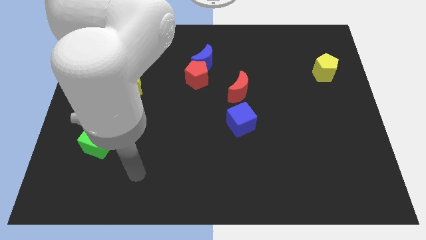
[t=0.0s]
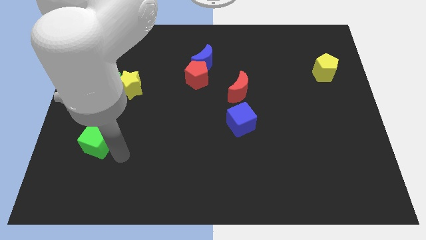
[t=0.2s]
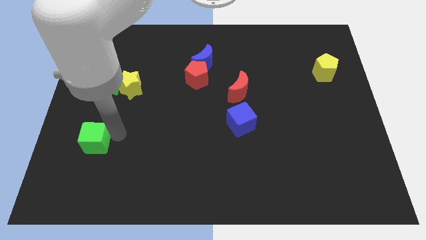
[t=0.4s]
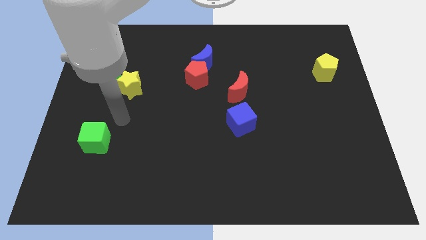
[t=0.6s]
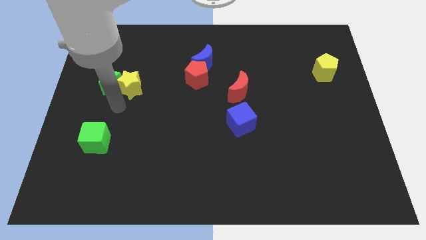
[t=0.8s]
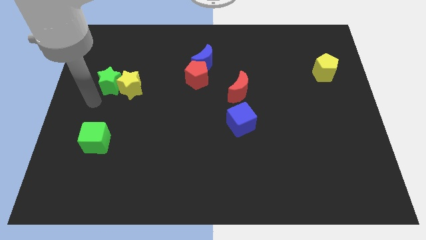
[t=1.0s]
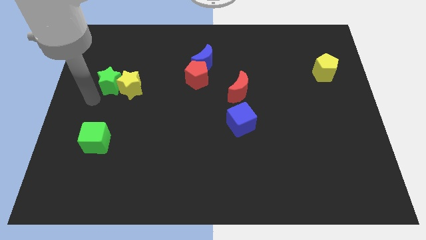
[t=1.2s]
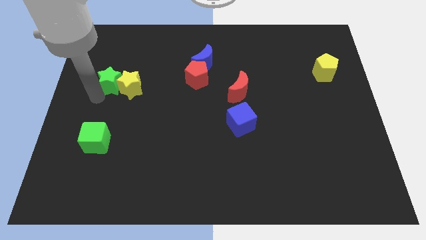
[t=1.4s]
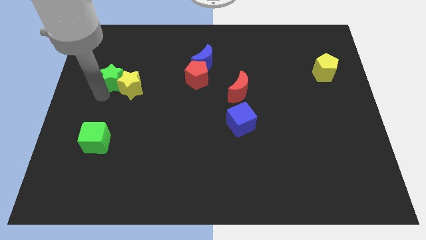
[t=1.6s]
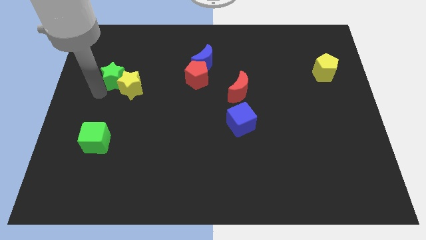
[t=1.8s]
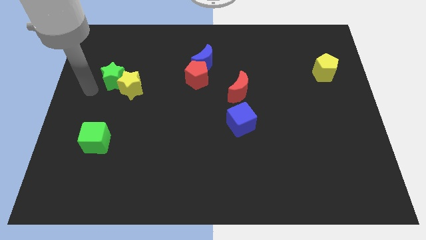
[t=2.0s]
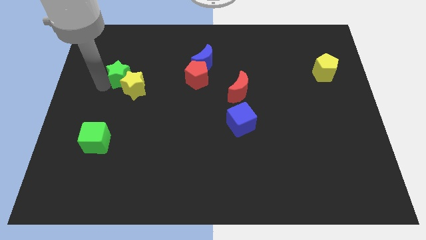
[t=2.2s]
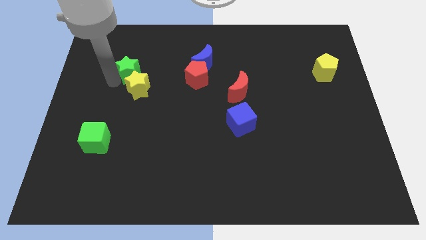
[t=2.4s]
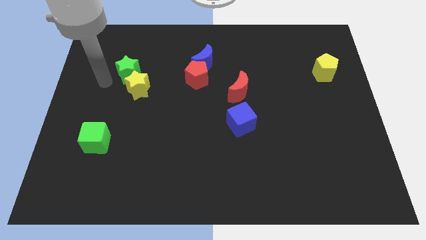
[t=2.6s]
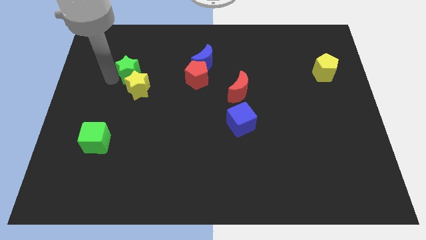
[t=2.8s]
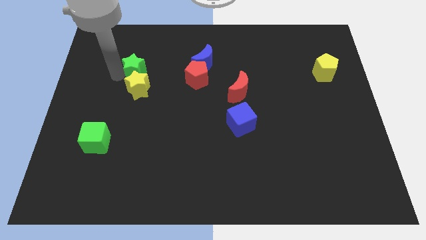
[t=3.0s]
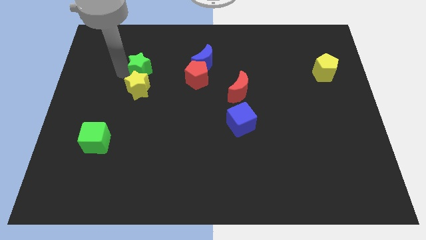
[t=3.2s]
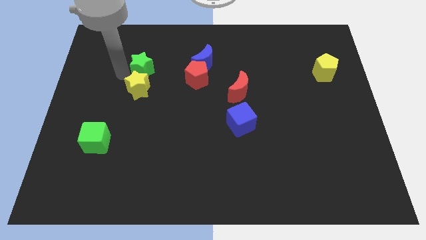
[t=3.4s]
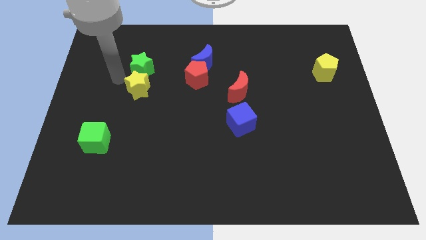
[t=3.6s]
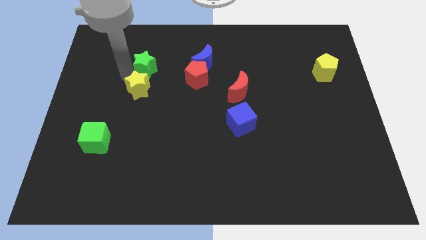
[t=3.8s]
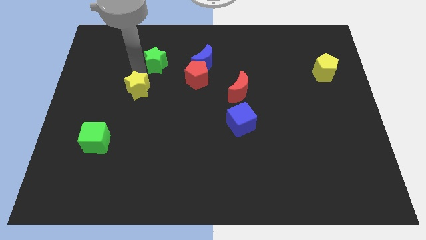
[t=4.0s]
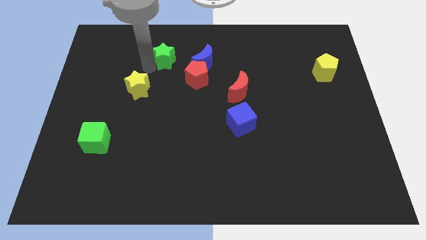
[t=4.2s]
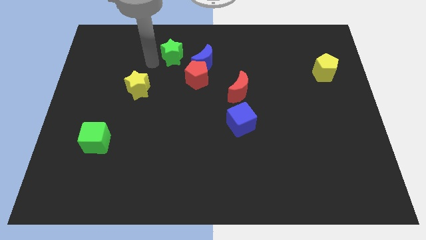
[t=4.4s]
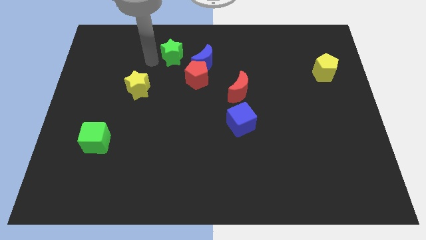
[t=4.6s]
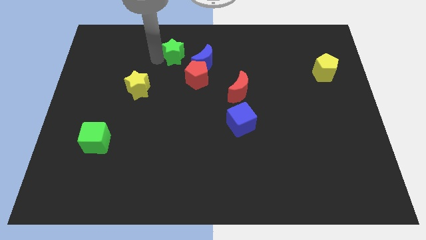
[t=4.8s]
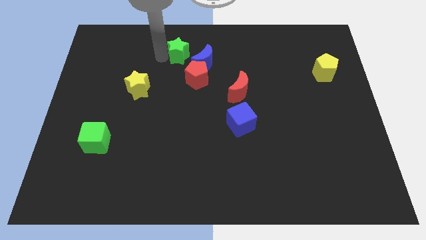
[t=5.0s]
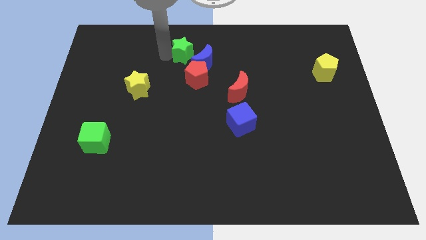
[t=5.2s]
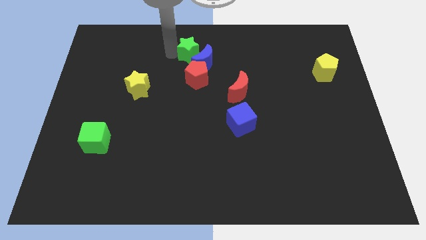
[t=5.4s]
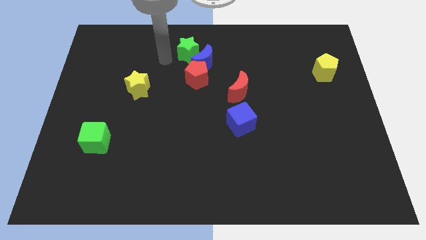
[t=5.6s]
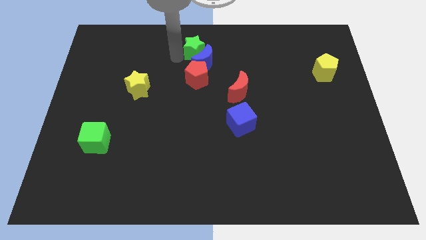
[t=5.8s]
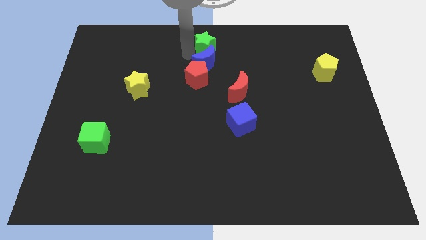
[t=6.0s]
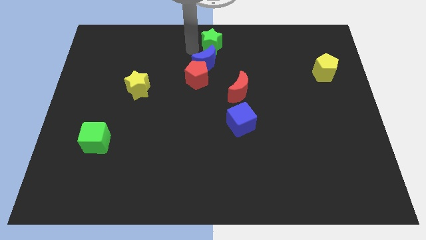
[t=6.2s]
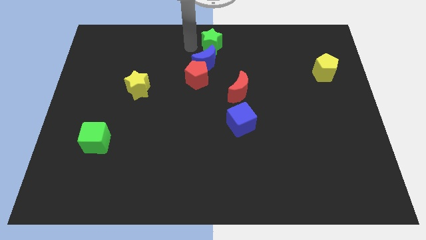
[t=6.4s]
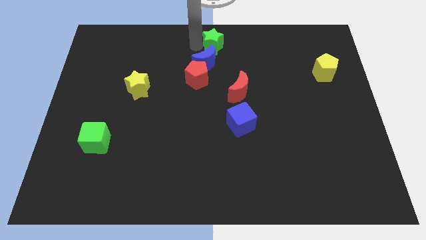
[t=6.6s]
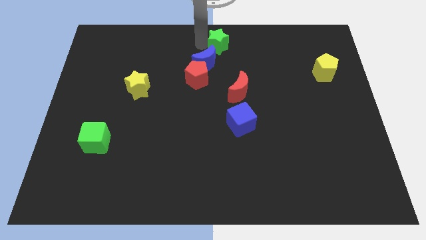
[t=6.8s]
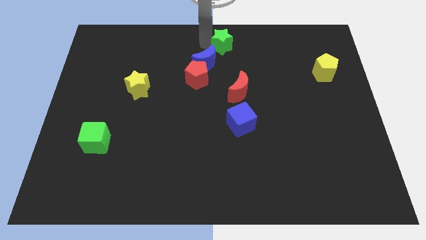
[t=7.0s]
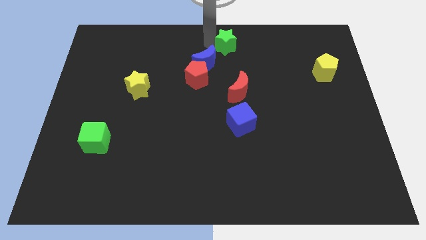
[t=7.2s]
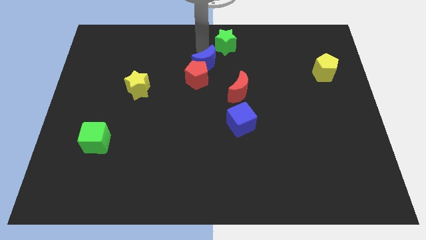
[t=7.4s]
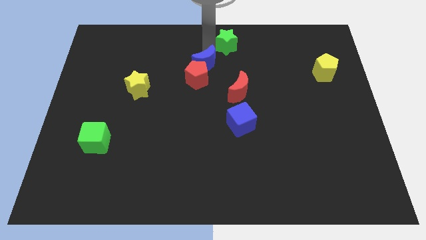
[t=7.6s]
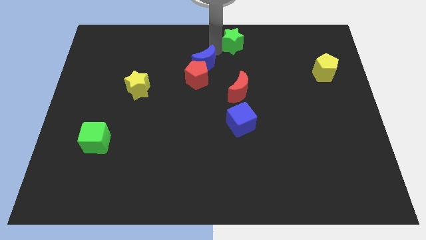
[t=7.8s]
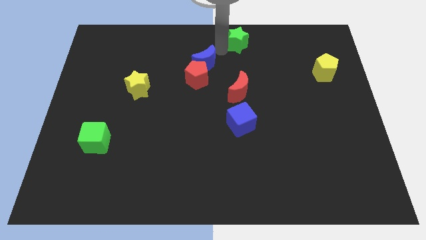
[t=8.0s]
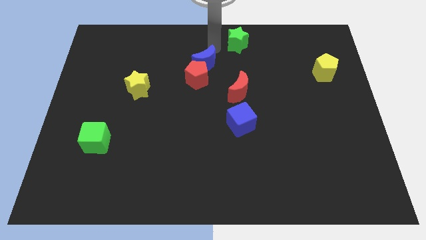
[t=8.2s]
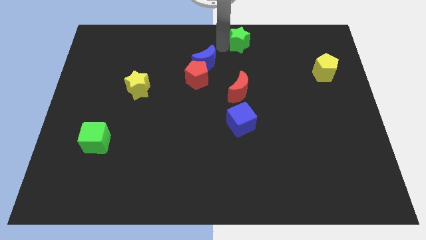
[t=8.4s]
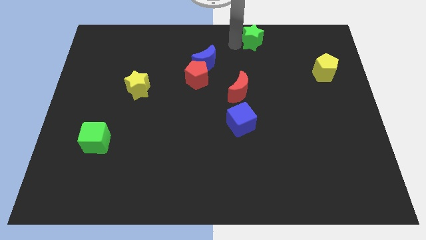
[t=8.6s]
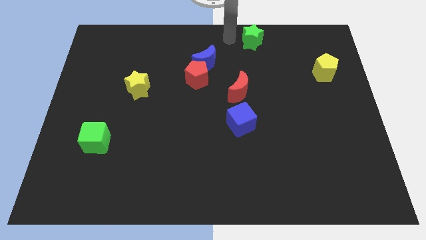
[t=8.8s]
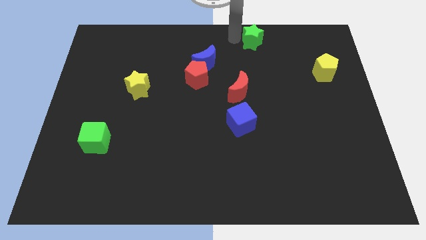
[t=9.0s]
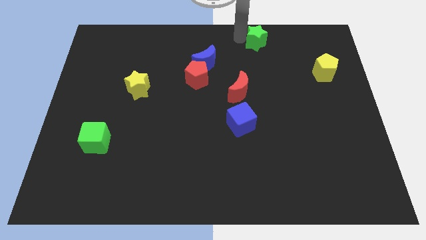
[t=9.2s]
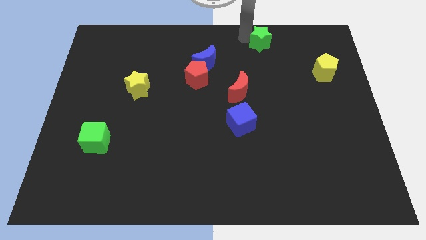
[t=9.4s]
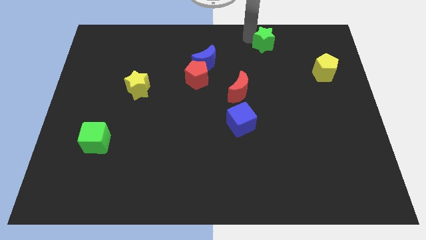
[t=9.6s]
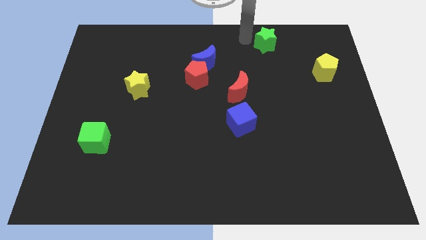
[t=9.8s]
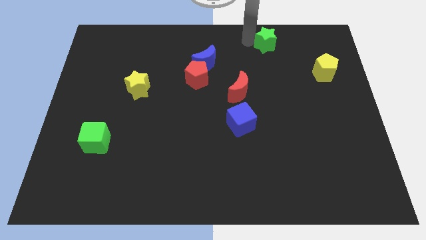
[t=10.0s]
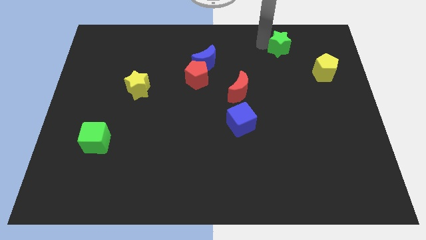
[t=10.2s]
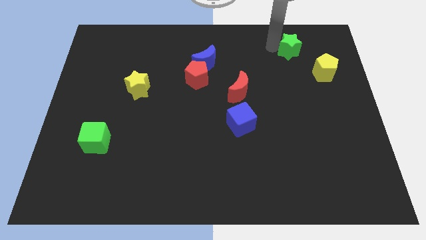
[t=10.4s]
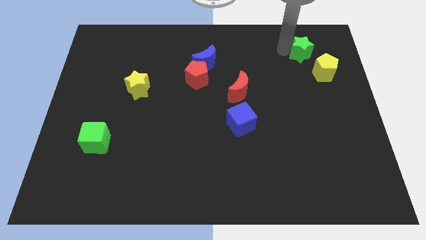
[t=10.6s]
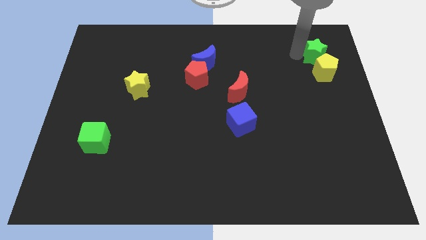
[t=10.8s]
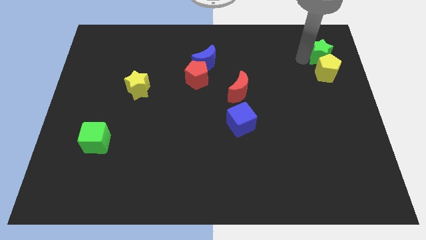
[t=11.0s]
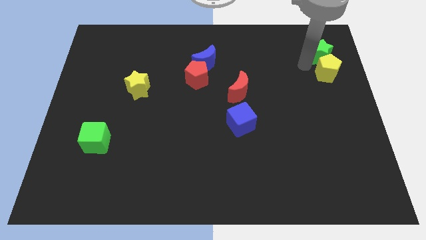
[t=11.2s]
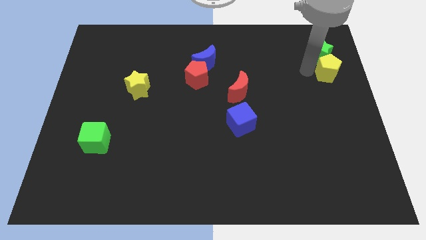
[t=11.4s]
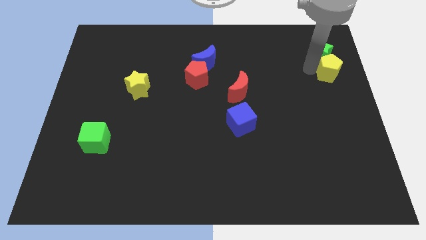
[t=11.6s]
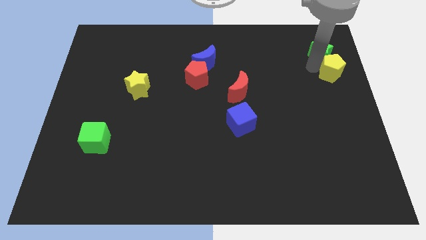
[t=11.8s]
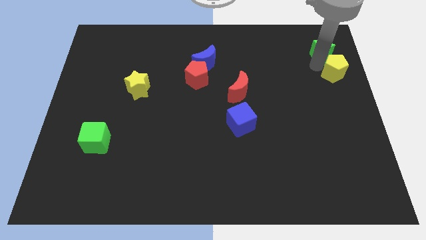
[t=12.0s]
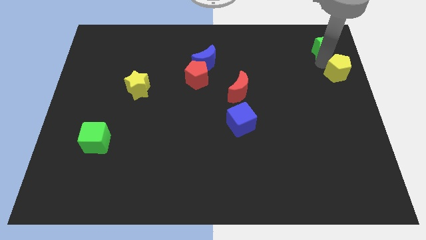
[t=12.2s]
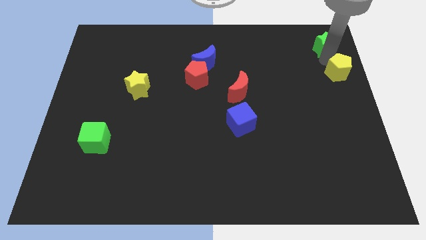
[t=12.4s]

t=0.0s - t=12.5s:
move the green star to the top right
